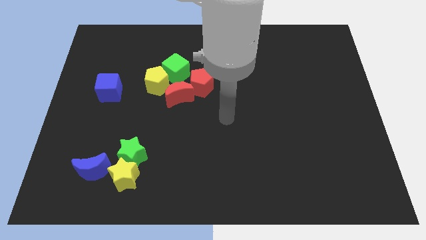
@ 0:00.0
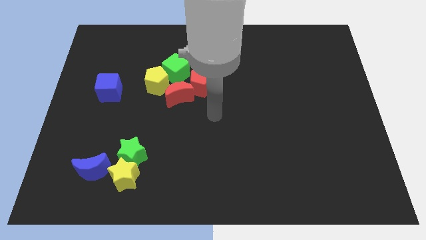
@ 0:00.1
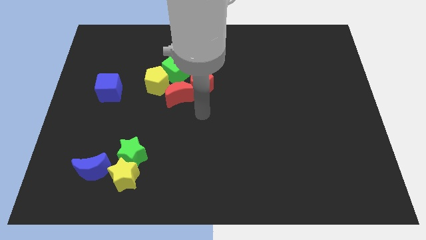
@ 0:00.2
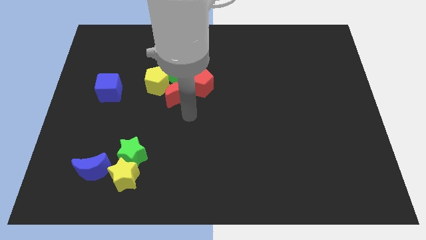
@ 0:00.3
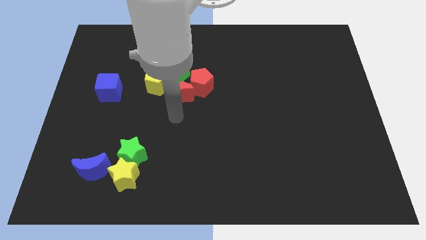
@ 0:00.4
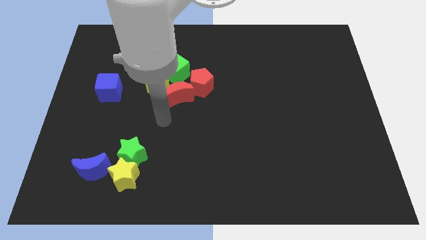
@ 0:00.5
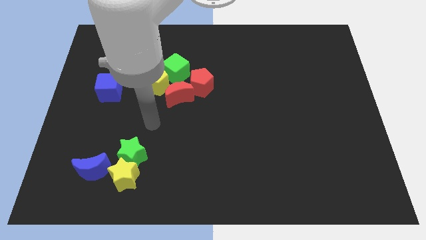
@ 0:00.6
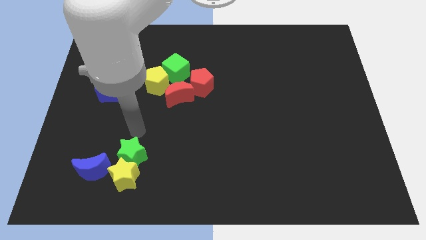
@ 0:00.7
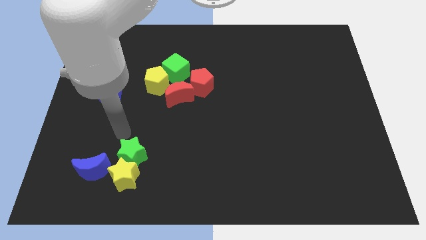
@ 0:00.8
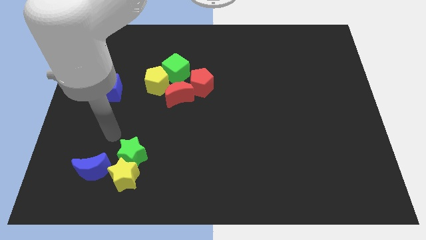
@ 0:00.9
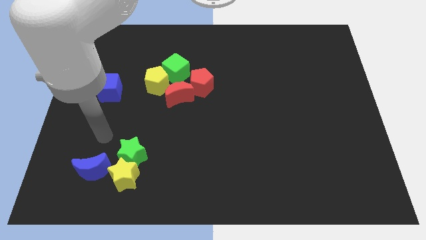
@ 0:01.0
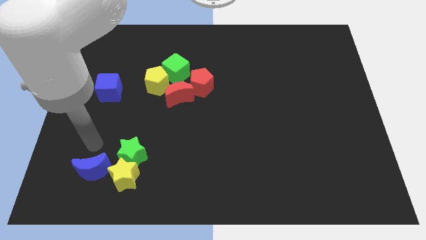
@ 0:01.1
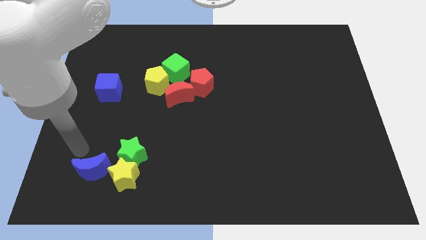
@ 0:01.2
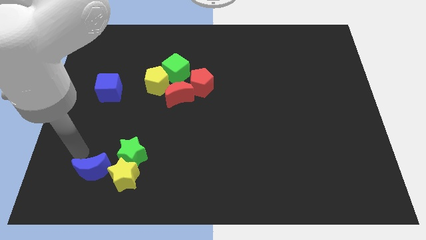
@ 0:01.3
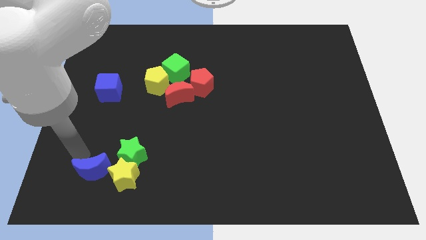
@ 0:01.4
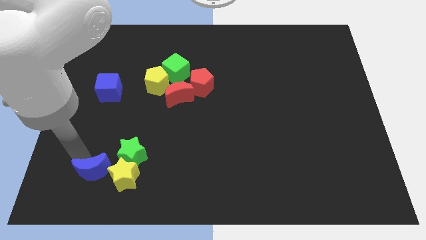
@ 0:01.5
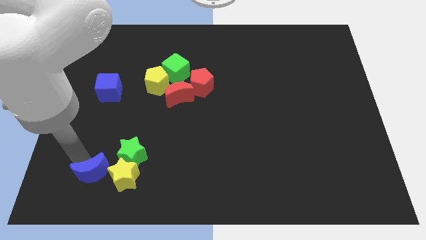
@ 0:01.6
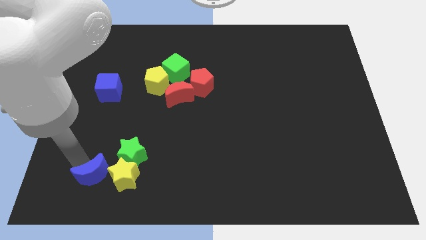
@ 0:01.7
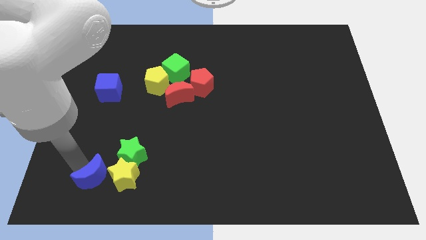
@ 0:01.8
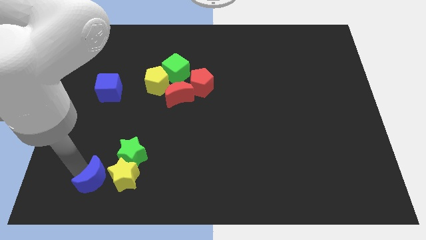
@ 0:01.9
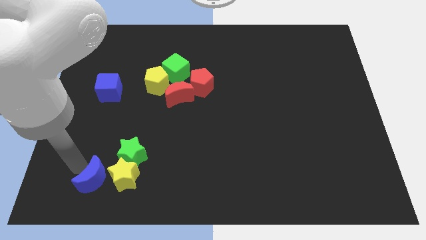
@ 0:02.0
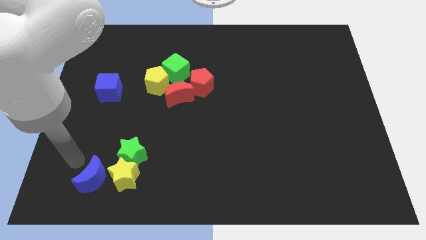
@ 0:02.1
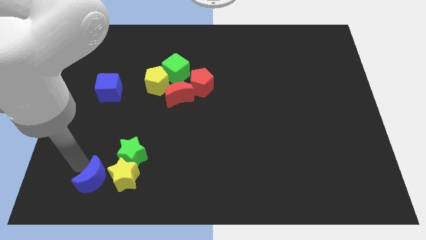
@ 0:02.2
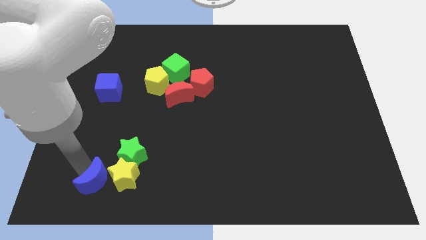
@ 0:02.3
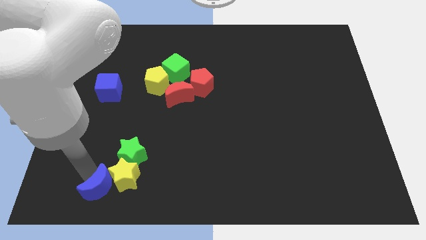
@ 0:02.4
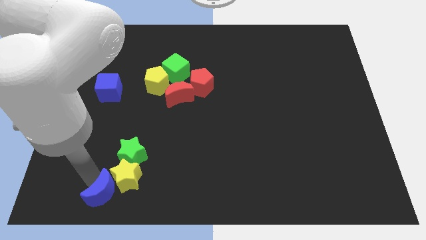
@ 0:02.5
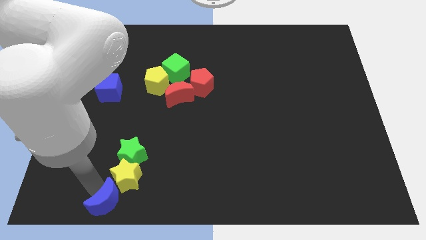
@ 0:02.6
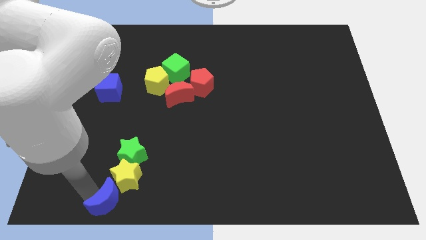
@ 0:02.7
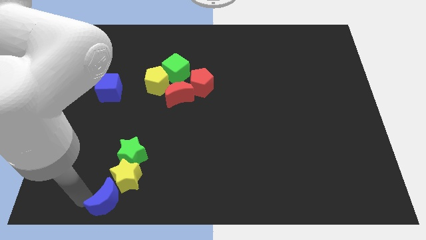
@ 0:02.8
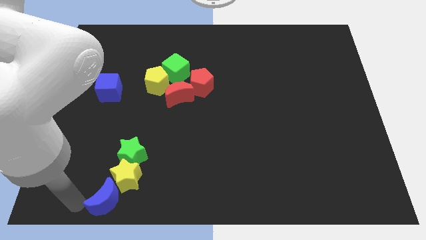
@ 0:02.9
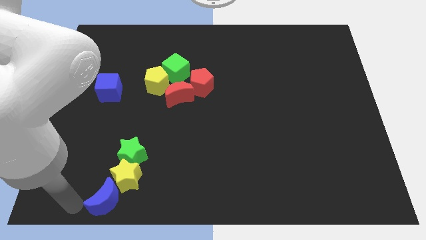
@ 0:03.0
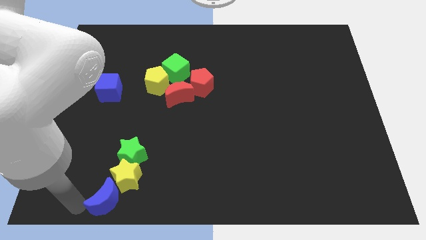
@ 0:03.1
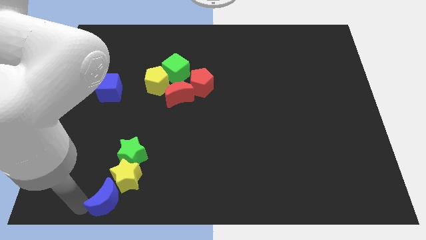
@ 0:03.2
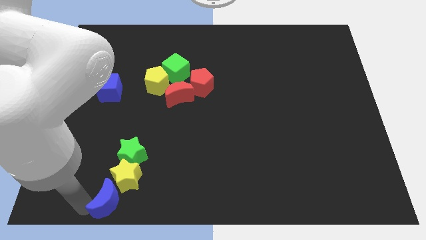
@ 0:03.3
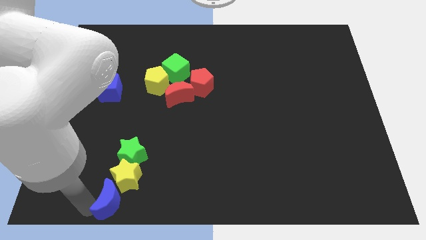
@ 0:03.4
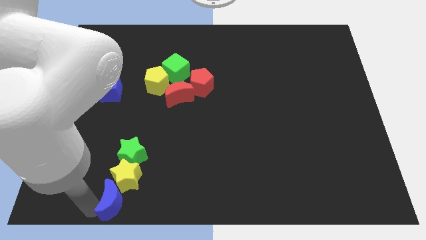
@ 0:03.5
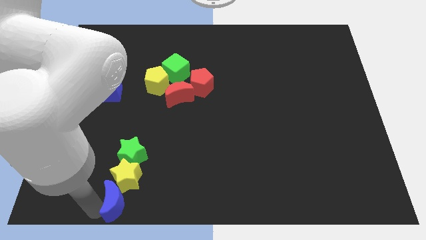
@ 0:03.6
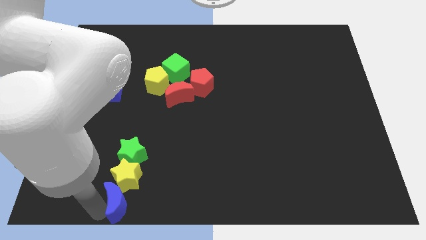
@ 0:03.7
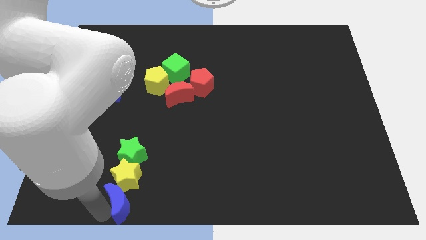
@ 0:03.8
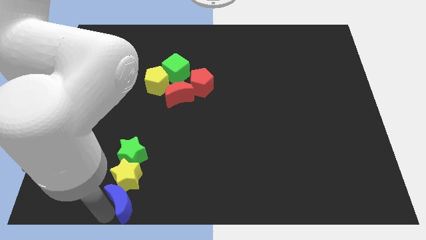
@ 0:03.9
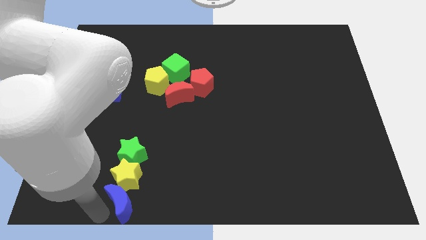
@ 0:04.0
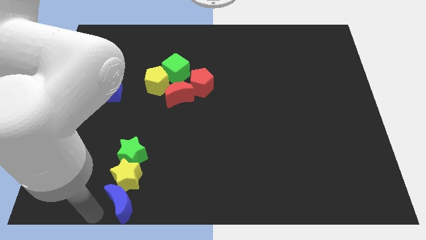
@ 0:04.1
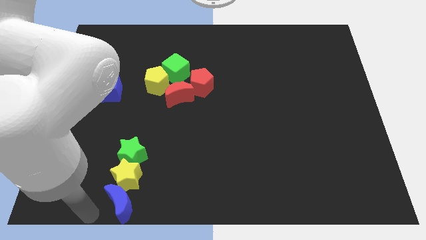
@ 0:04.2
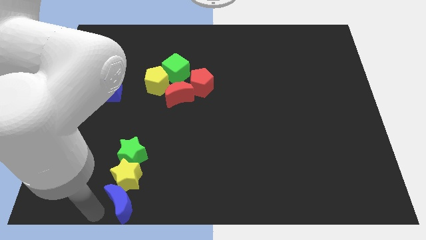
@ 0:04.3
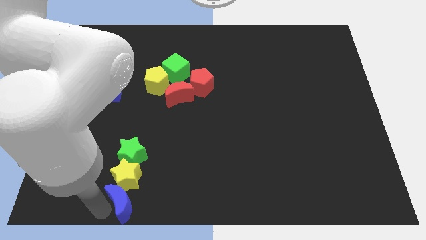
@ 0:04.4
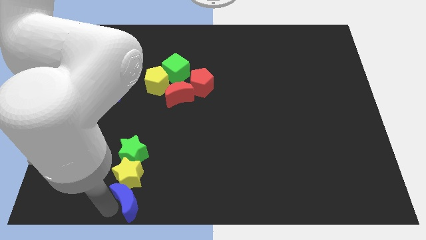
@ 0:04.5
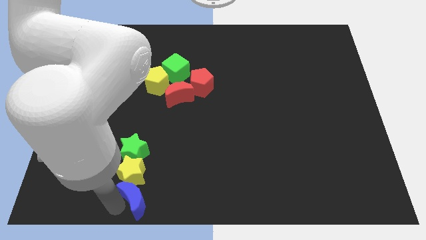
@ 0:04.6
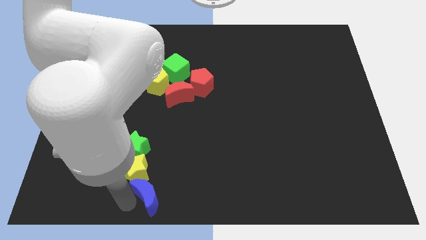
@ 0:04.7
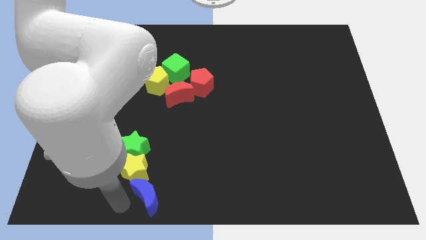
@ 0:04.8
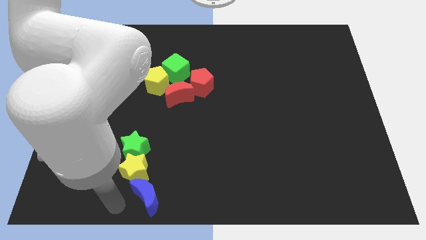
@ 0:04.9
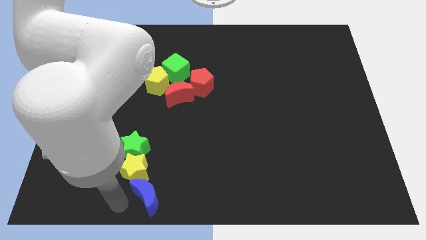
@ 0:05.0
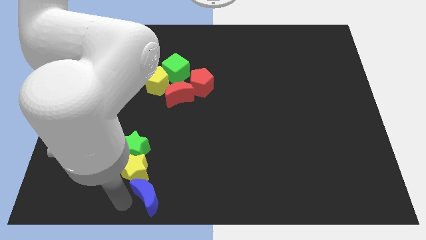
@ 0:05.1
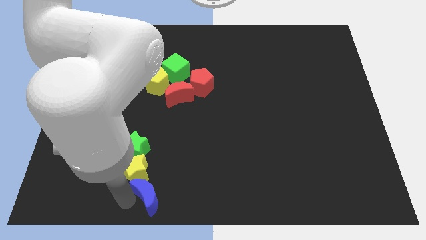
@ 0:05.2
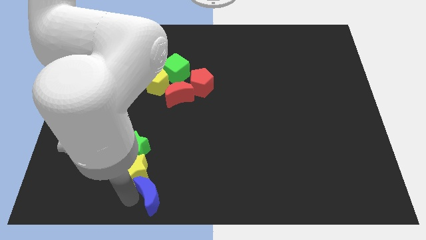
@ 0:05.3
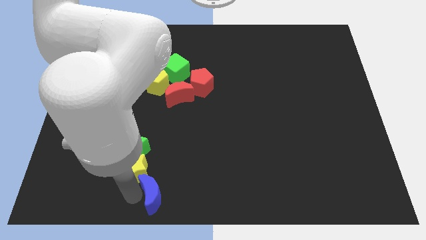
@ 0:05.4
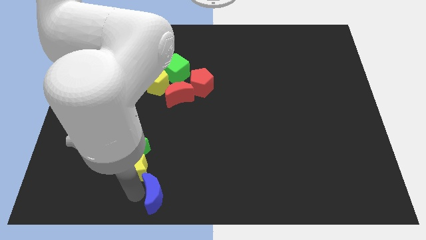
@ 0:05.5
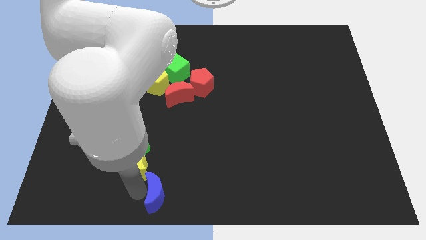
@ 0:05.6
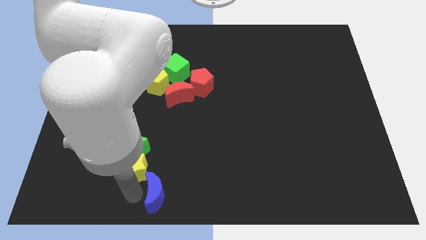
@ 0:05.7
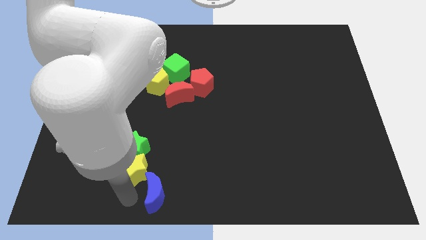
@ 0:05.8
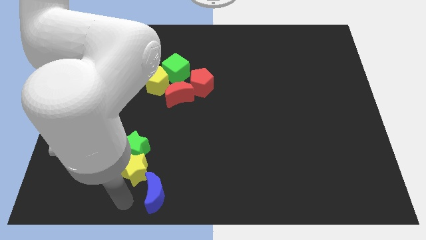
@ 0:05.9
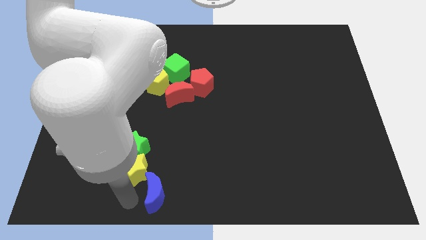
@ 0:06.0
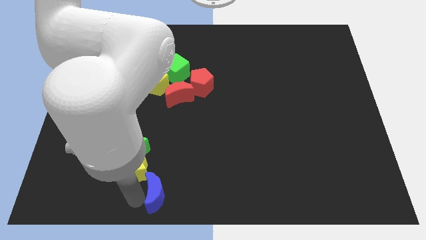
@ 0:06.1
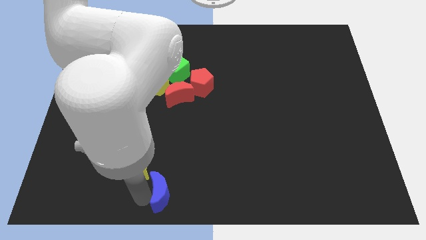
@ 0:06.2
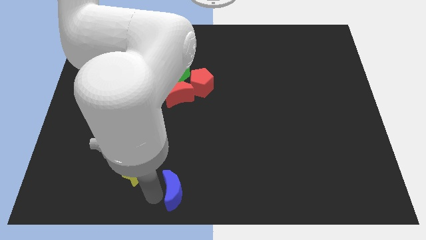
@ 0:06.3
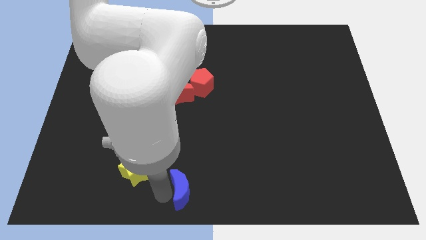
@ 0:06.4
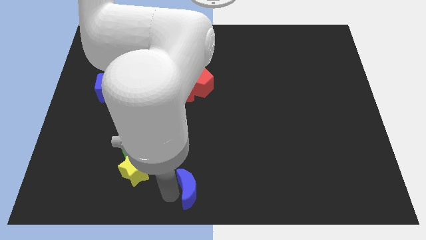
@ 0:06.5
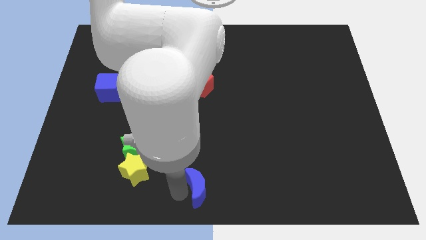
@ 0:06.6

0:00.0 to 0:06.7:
move the blue moon to the right

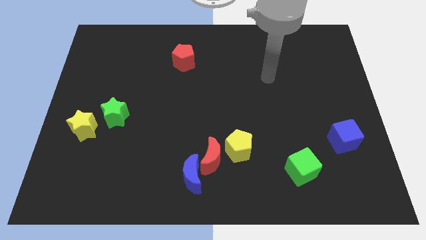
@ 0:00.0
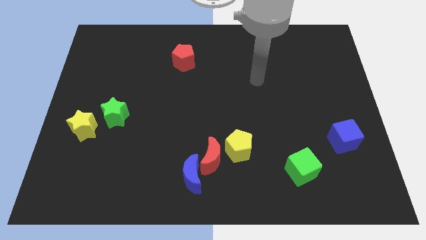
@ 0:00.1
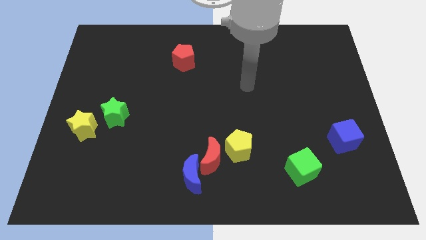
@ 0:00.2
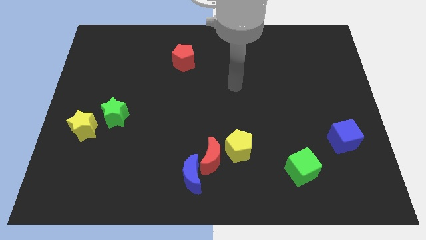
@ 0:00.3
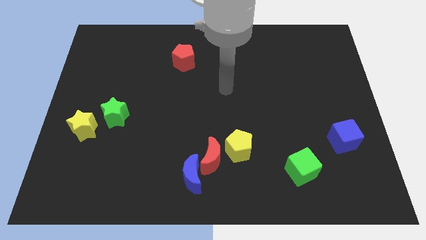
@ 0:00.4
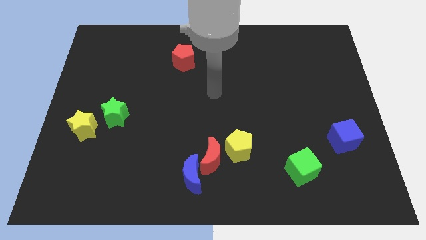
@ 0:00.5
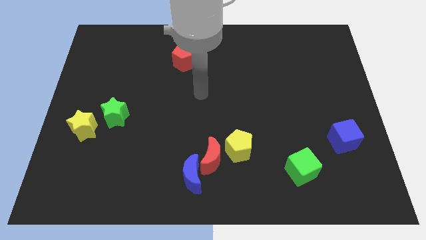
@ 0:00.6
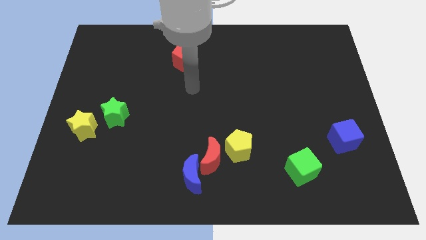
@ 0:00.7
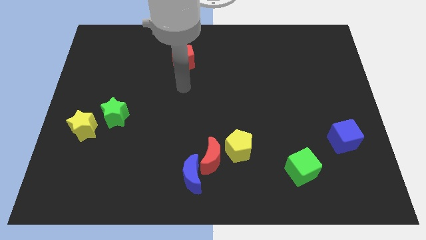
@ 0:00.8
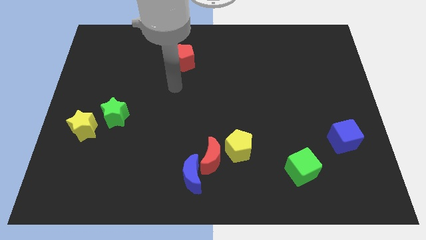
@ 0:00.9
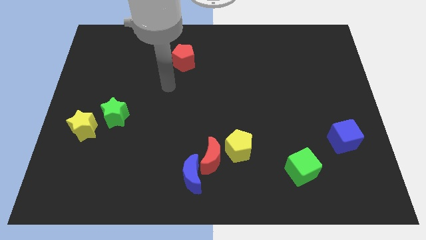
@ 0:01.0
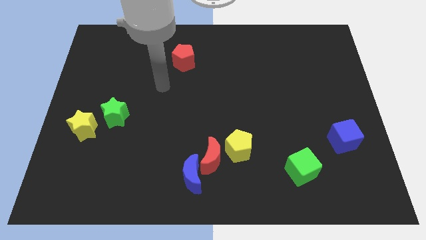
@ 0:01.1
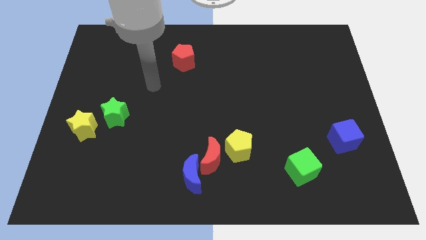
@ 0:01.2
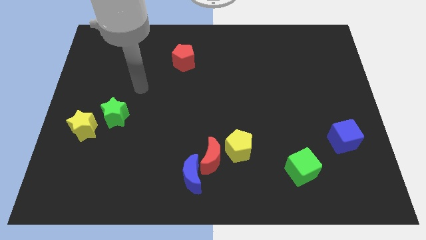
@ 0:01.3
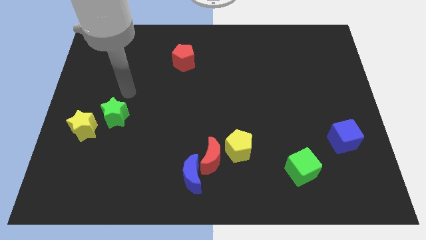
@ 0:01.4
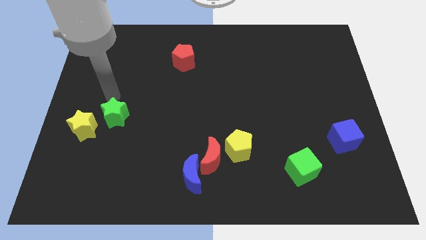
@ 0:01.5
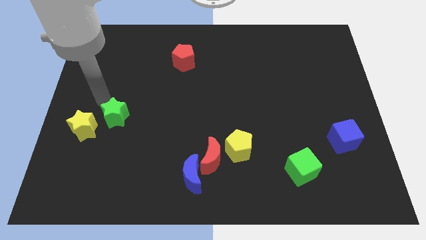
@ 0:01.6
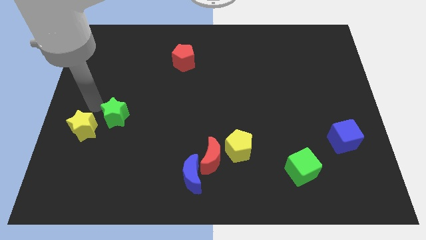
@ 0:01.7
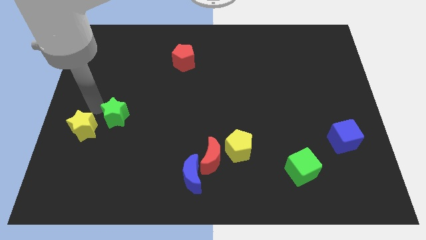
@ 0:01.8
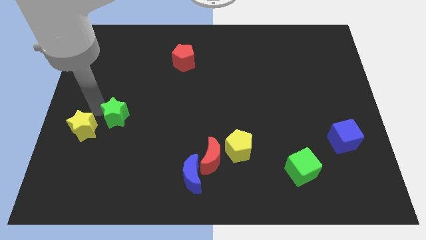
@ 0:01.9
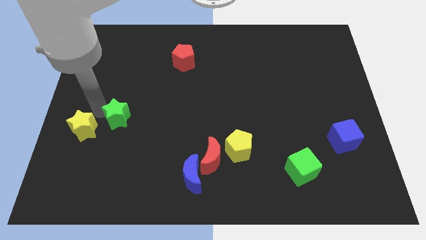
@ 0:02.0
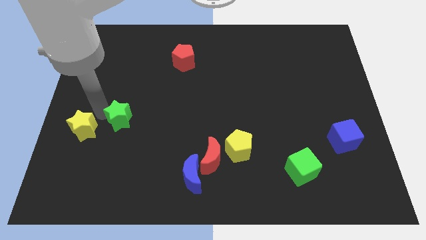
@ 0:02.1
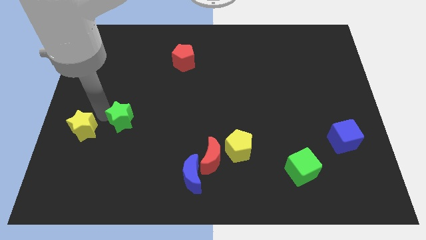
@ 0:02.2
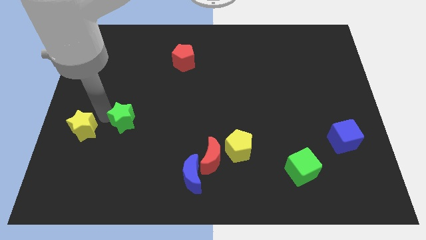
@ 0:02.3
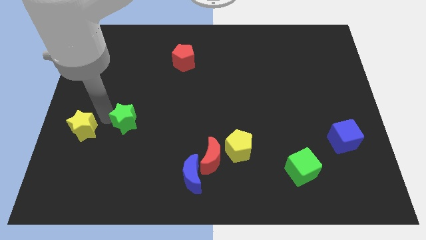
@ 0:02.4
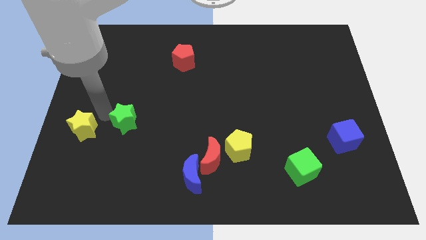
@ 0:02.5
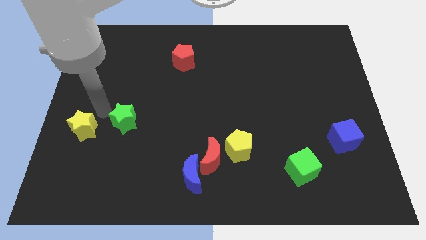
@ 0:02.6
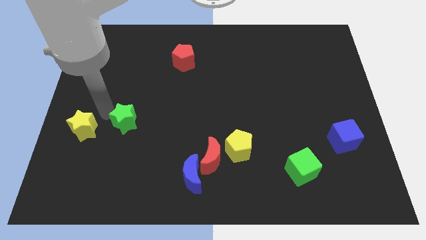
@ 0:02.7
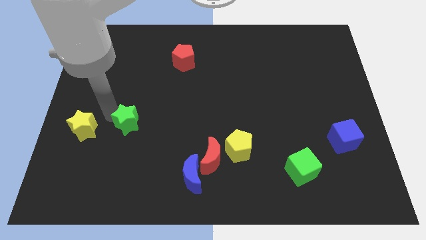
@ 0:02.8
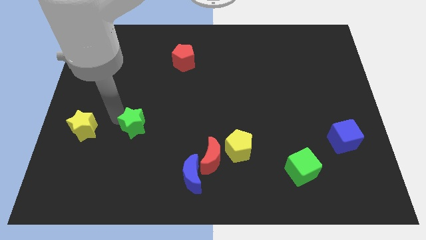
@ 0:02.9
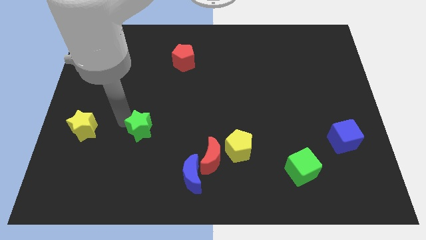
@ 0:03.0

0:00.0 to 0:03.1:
slightly slide the green star downwards and right diagonally
